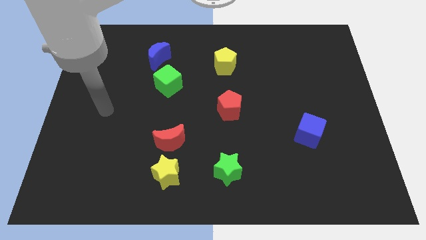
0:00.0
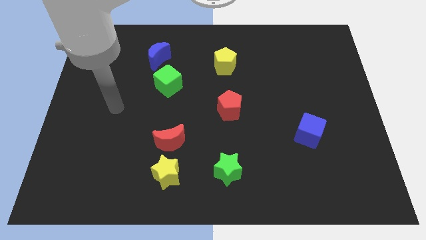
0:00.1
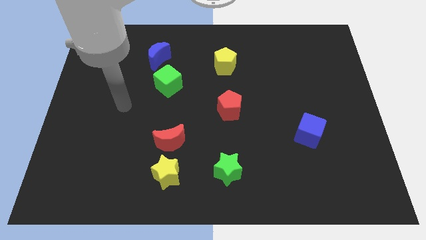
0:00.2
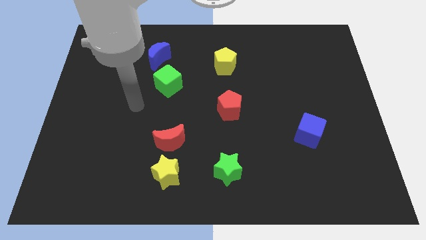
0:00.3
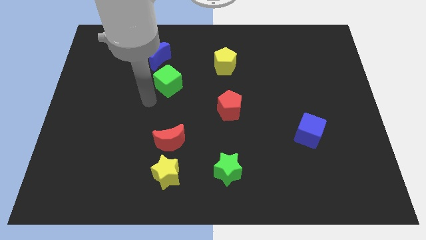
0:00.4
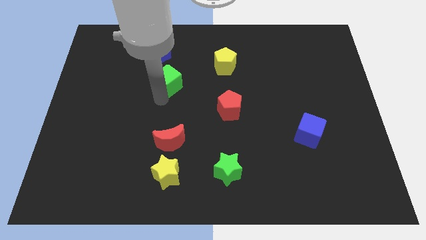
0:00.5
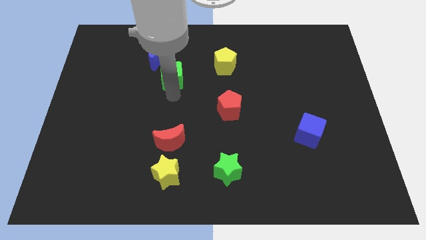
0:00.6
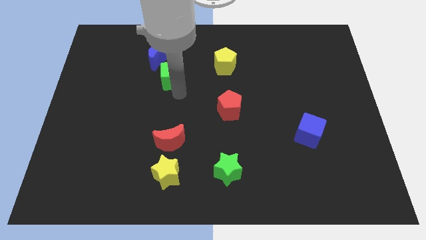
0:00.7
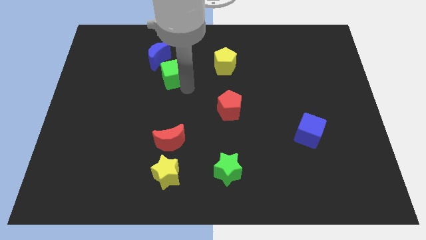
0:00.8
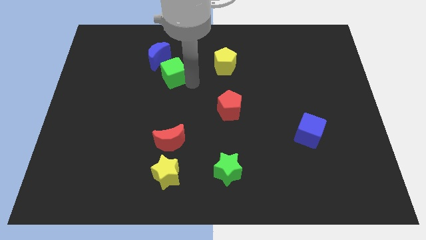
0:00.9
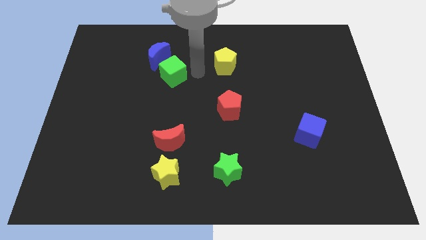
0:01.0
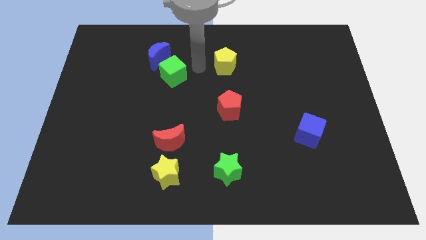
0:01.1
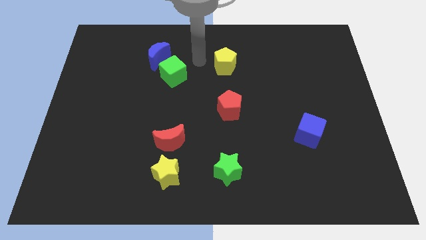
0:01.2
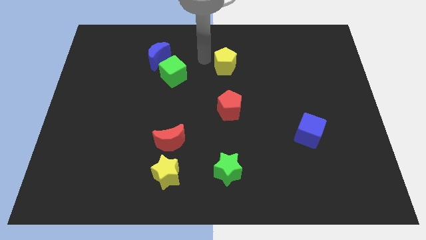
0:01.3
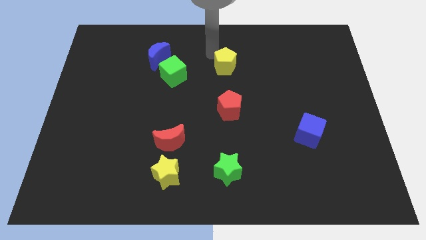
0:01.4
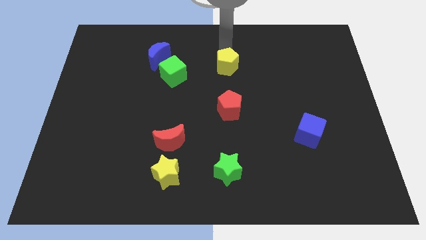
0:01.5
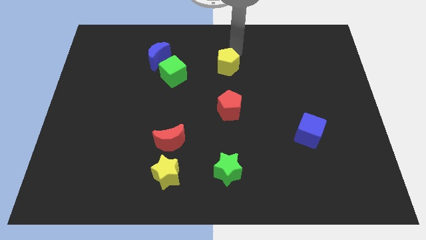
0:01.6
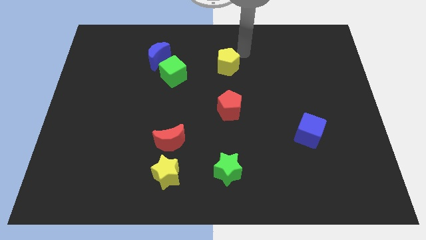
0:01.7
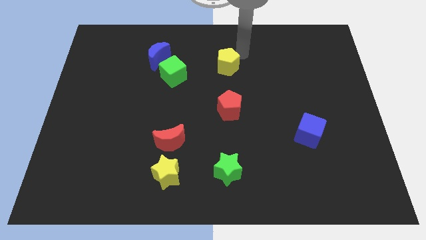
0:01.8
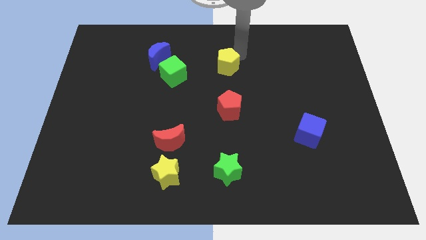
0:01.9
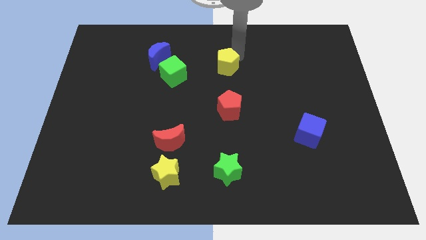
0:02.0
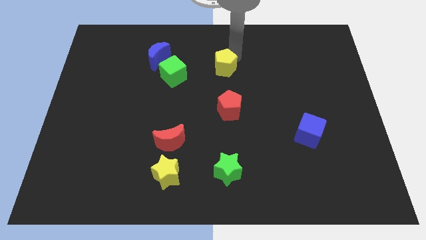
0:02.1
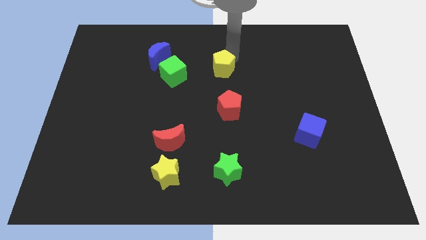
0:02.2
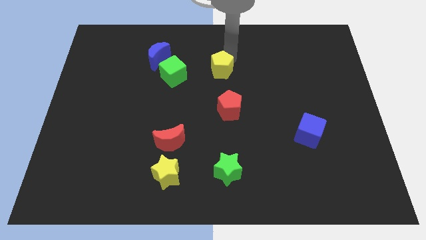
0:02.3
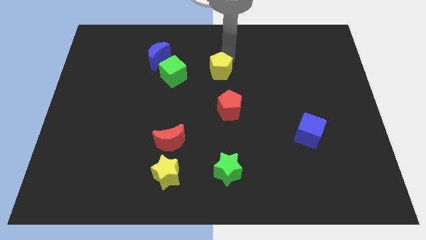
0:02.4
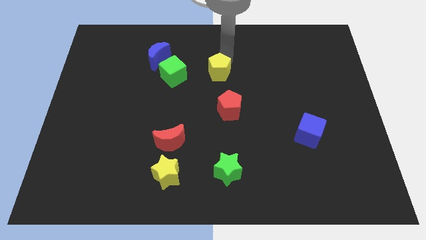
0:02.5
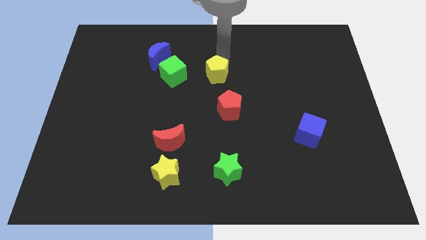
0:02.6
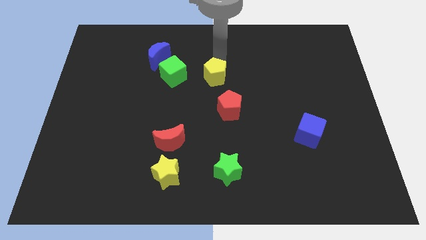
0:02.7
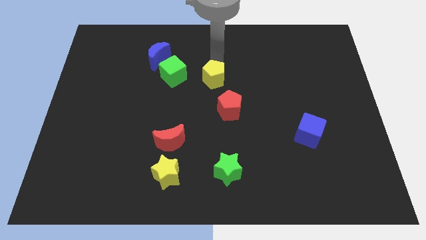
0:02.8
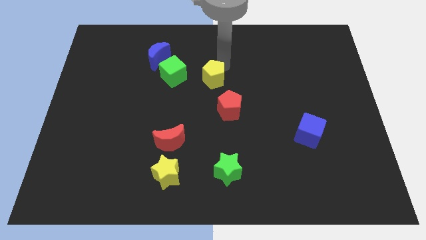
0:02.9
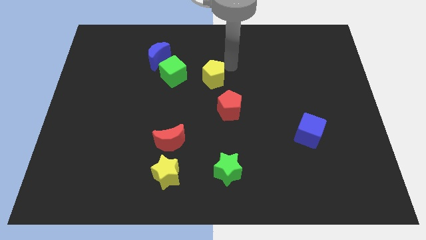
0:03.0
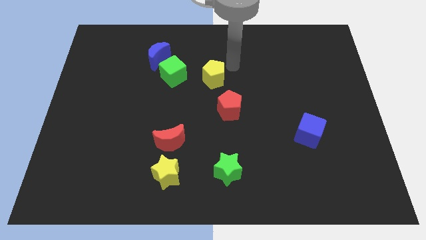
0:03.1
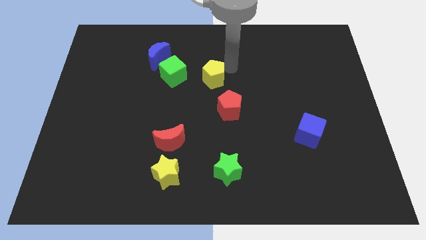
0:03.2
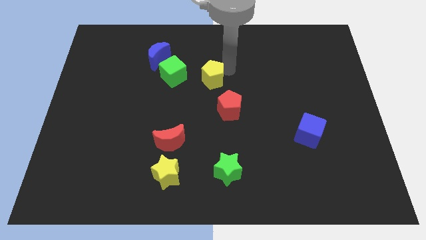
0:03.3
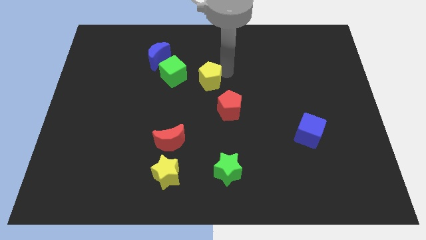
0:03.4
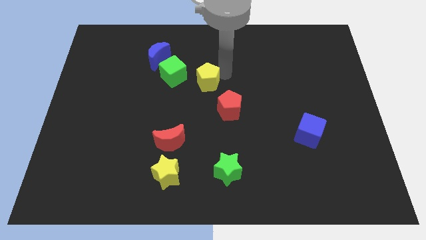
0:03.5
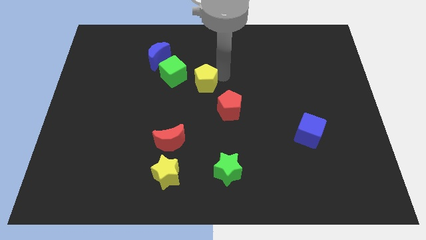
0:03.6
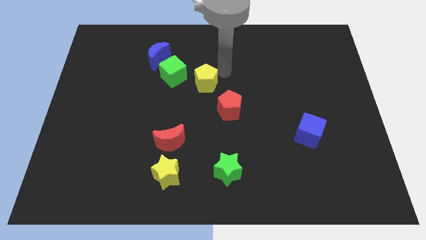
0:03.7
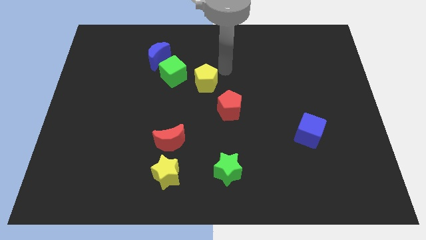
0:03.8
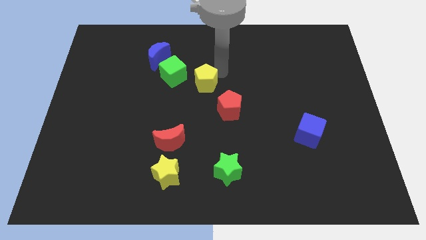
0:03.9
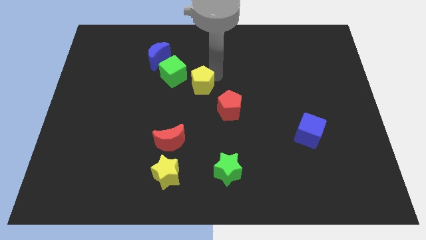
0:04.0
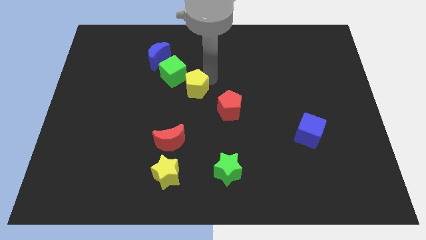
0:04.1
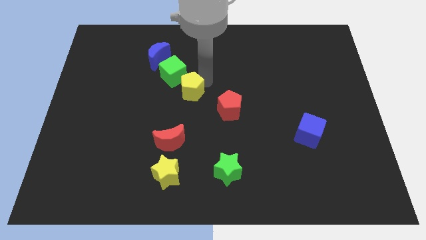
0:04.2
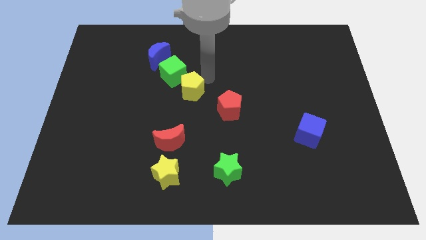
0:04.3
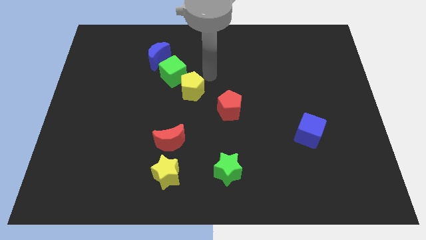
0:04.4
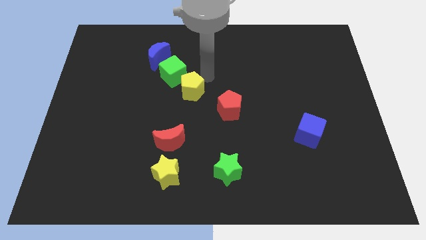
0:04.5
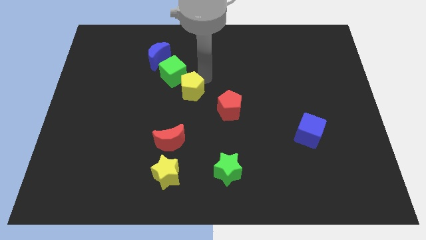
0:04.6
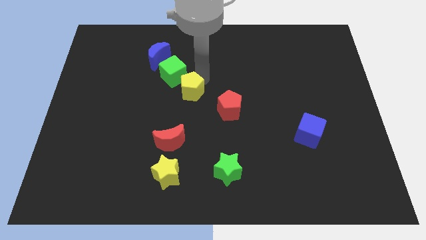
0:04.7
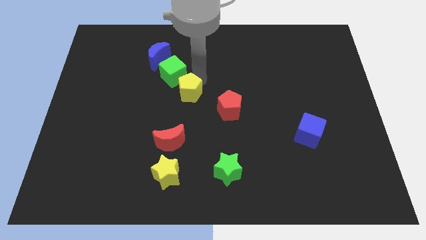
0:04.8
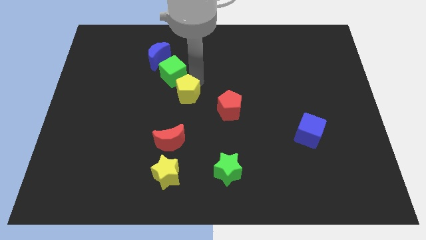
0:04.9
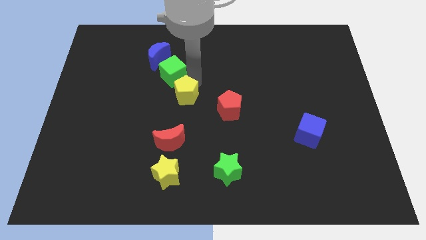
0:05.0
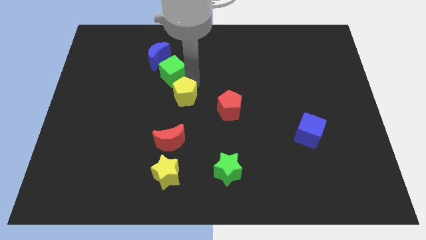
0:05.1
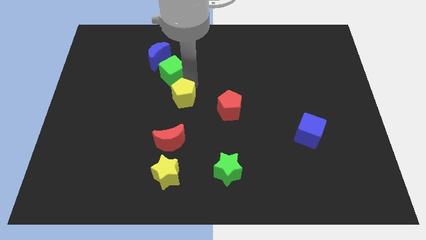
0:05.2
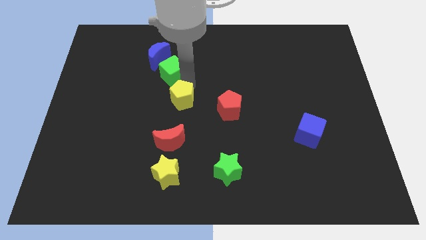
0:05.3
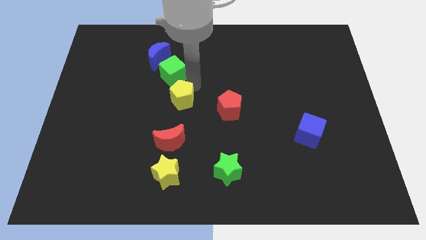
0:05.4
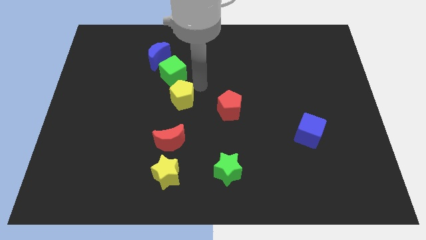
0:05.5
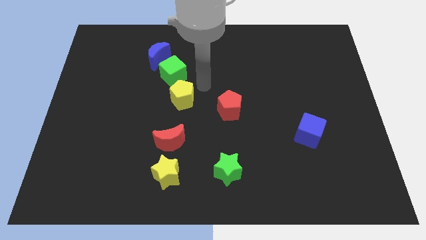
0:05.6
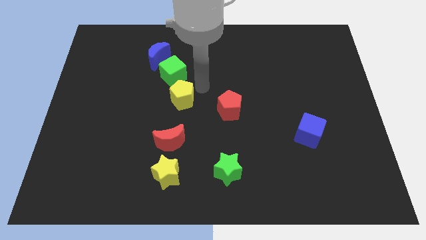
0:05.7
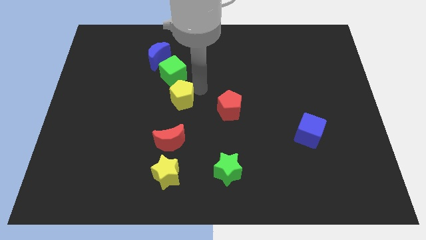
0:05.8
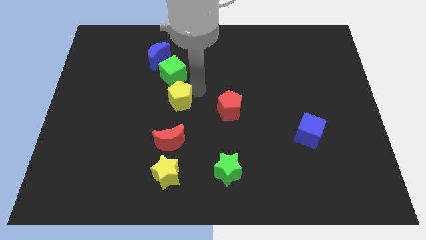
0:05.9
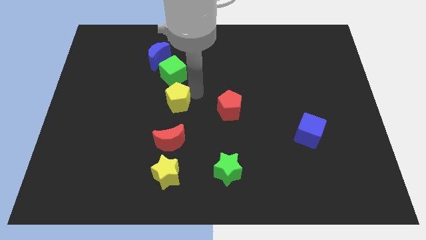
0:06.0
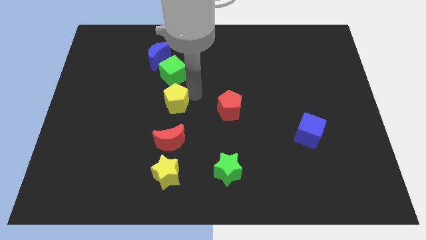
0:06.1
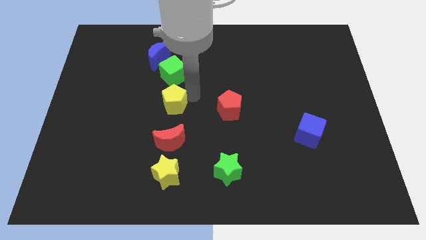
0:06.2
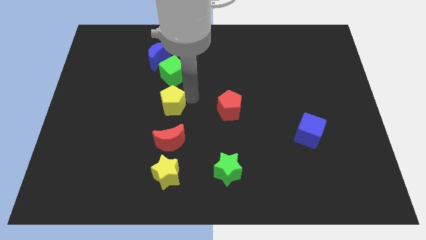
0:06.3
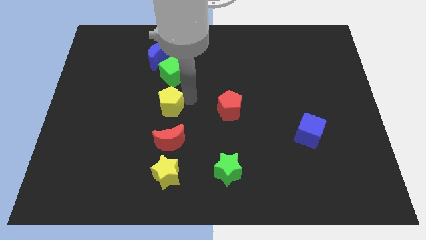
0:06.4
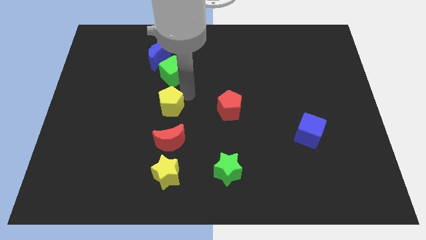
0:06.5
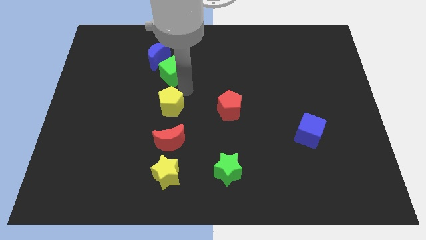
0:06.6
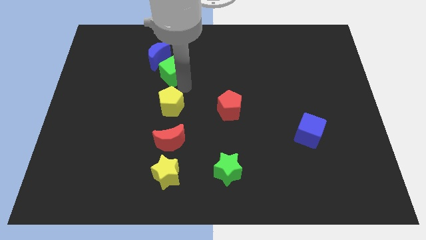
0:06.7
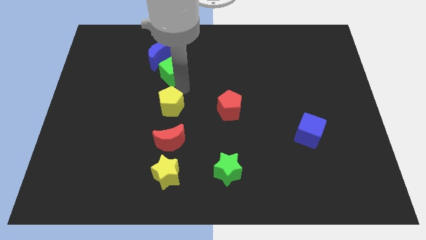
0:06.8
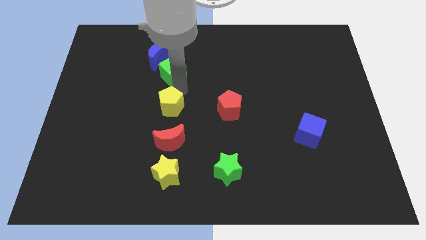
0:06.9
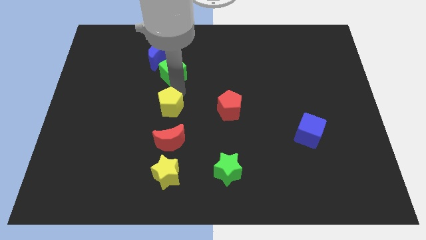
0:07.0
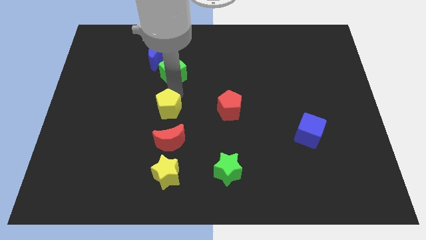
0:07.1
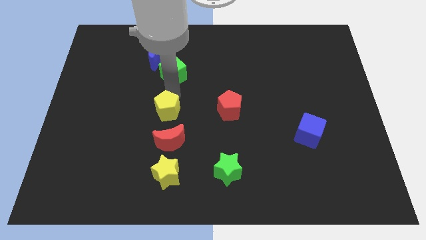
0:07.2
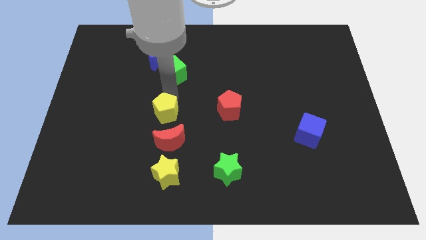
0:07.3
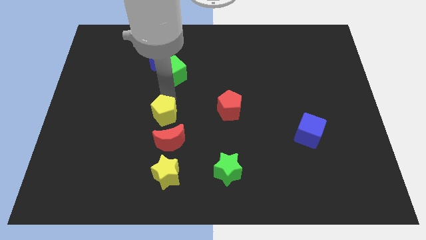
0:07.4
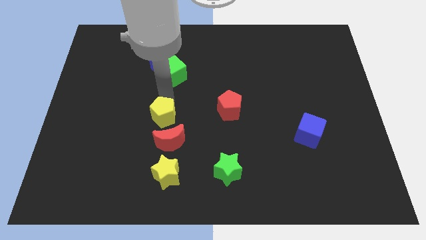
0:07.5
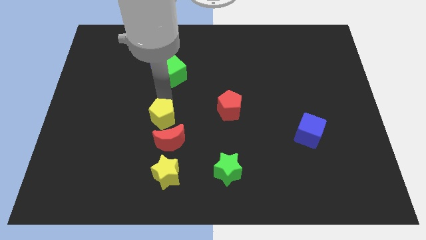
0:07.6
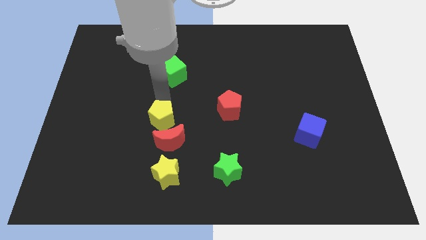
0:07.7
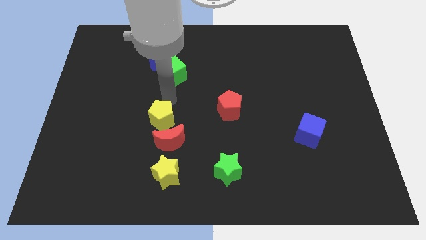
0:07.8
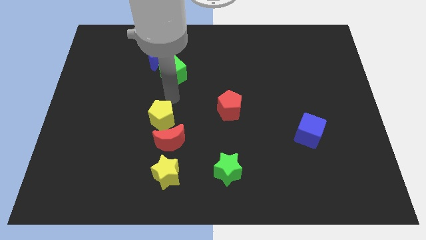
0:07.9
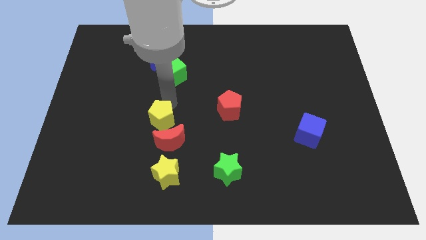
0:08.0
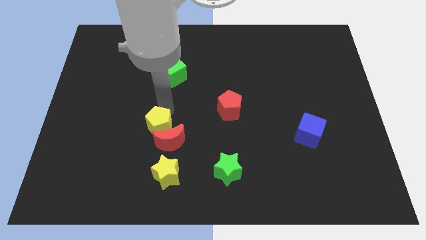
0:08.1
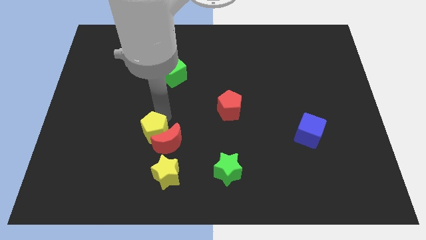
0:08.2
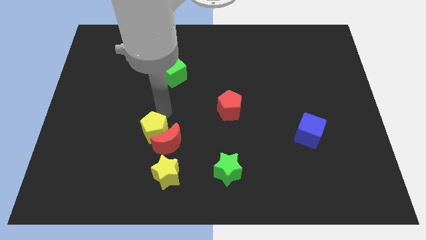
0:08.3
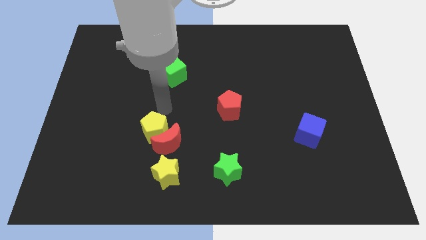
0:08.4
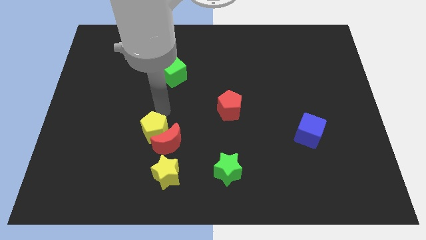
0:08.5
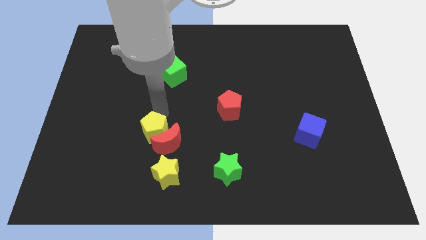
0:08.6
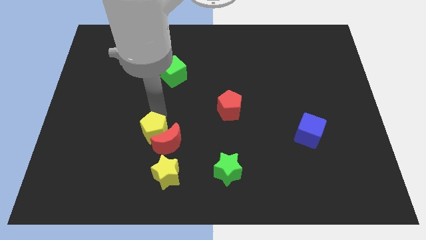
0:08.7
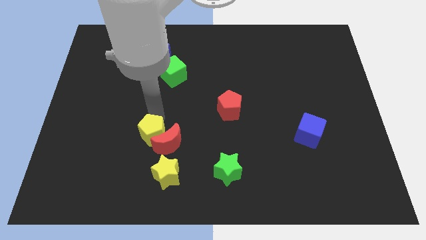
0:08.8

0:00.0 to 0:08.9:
slide the yellow pentagon diagonally up and to the left of the yellow star
